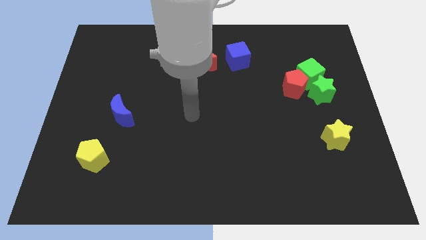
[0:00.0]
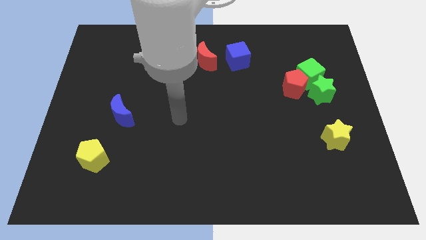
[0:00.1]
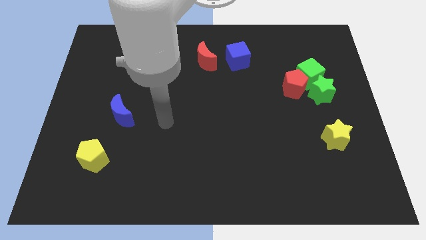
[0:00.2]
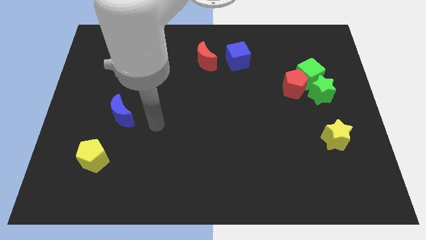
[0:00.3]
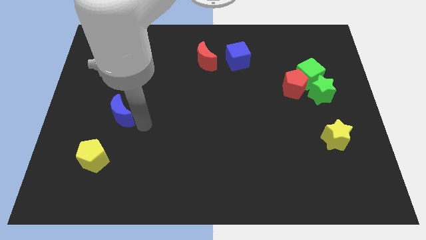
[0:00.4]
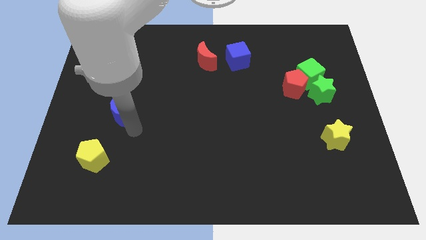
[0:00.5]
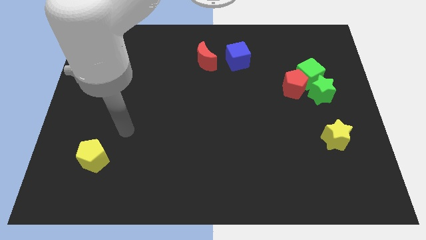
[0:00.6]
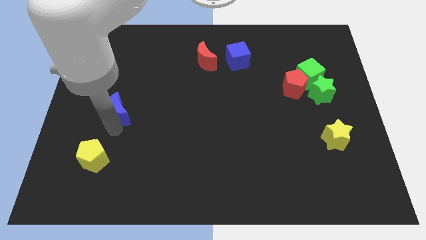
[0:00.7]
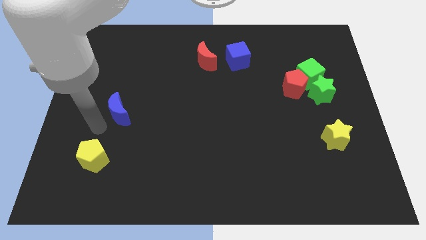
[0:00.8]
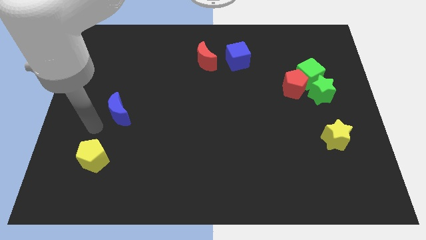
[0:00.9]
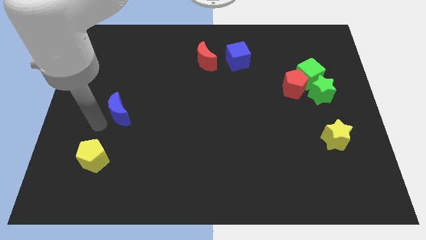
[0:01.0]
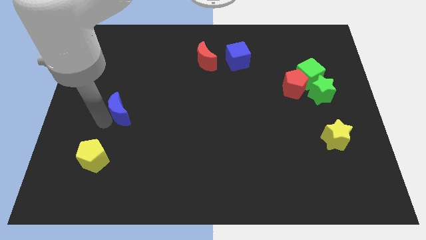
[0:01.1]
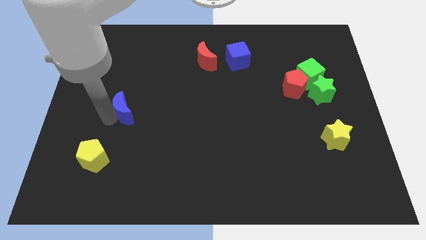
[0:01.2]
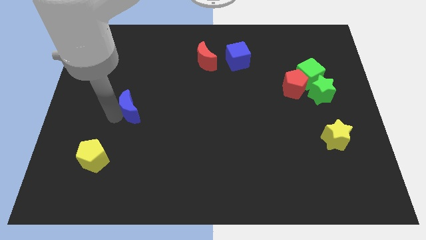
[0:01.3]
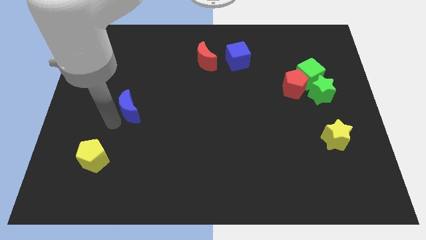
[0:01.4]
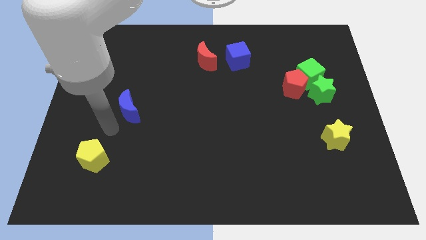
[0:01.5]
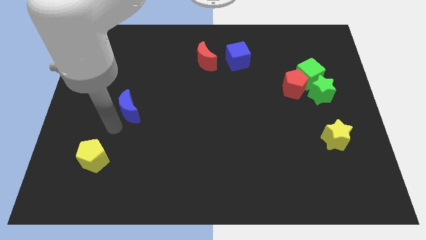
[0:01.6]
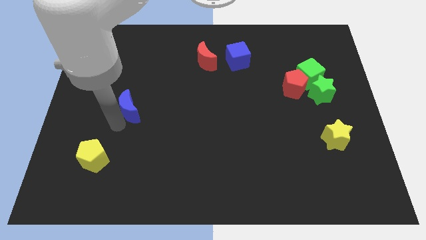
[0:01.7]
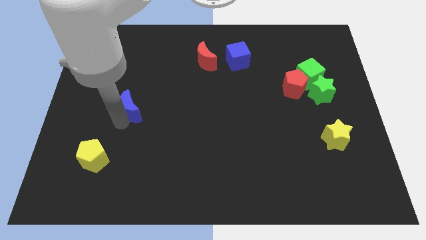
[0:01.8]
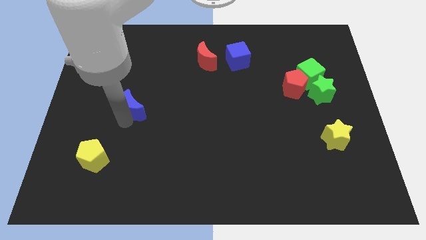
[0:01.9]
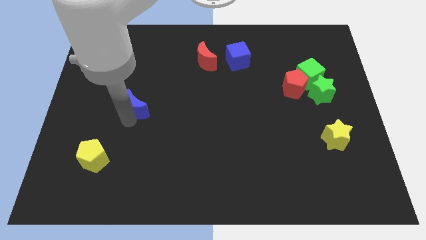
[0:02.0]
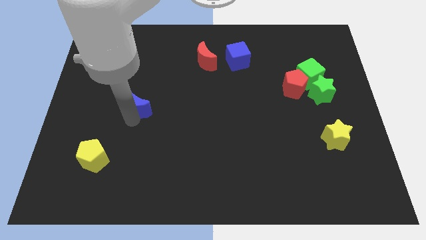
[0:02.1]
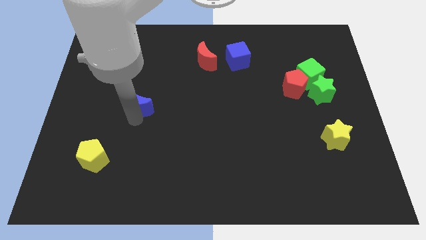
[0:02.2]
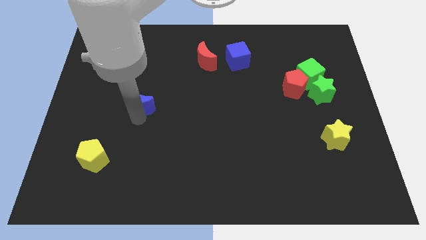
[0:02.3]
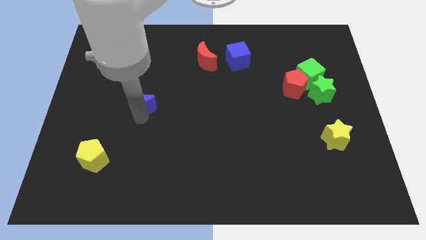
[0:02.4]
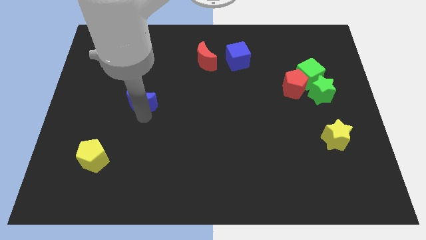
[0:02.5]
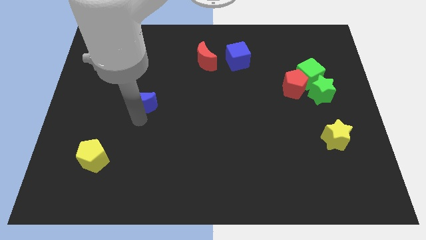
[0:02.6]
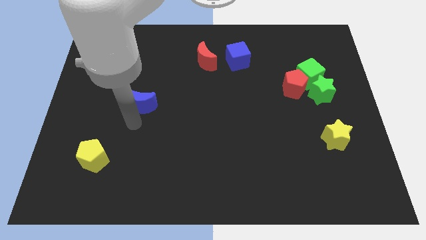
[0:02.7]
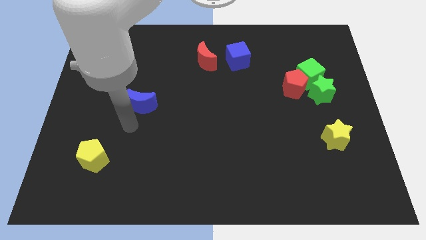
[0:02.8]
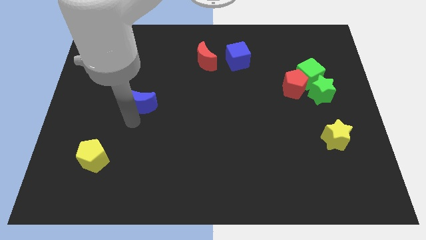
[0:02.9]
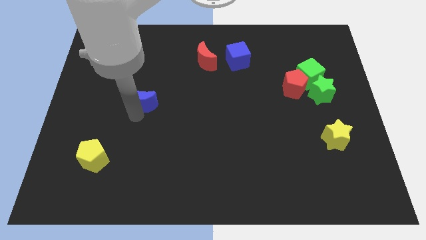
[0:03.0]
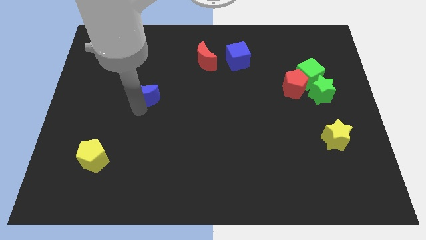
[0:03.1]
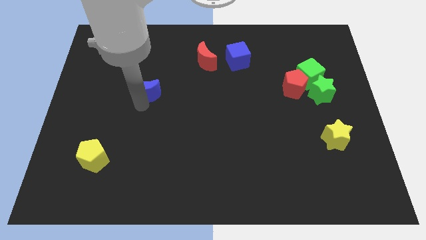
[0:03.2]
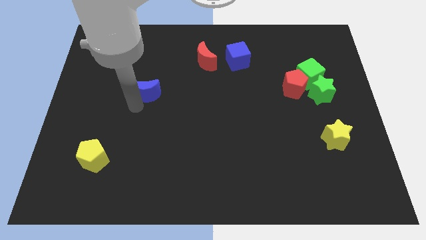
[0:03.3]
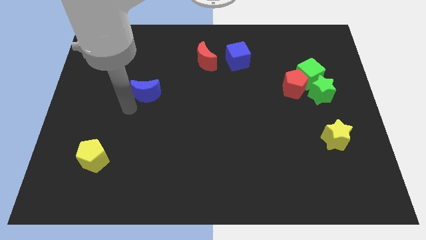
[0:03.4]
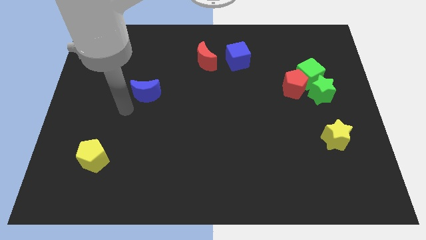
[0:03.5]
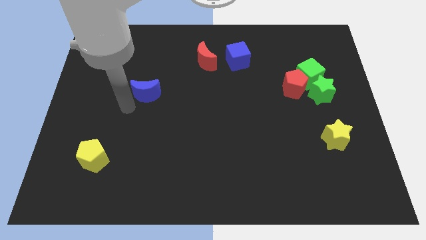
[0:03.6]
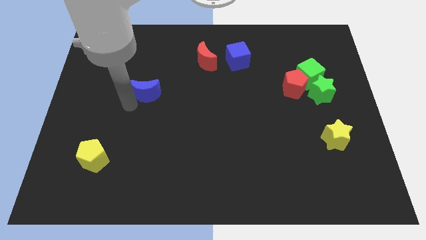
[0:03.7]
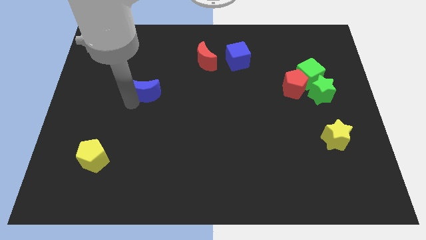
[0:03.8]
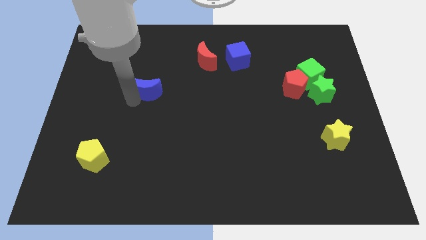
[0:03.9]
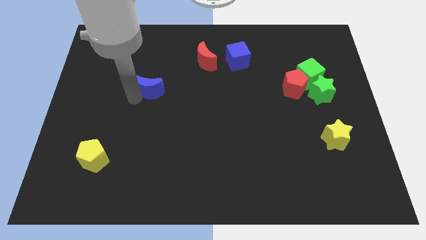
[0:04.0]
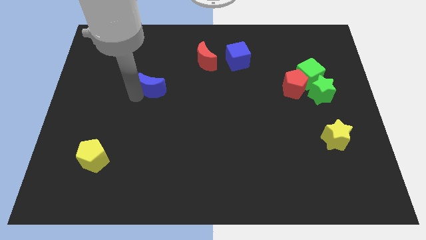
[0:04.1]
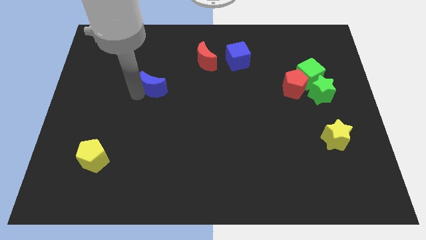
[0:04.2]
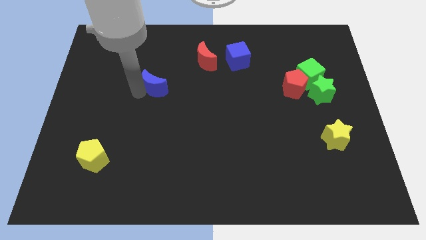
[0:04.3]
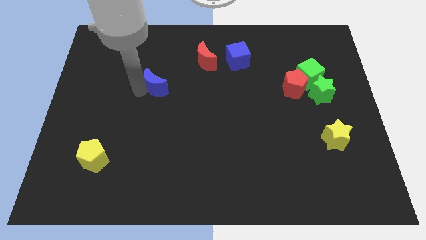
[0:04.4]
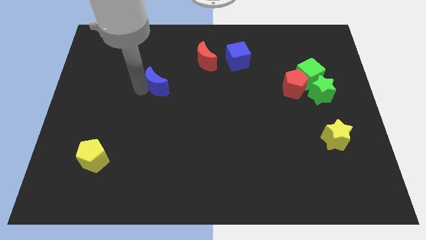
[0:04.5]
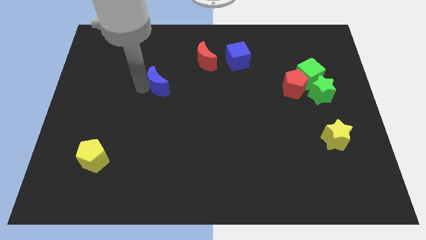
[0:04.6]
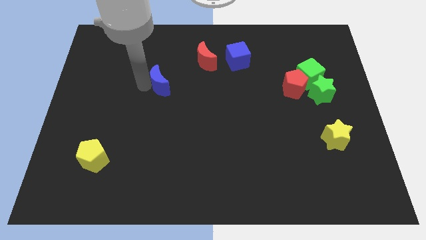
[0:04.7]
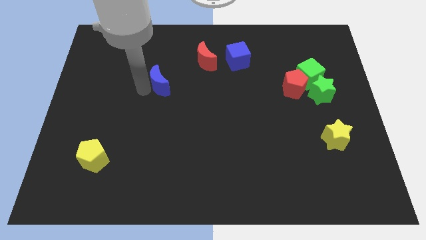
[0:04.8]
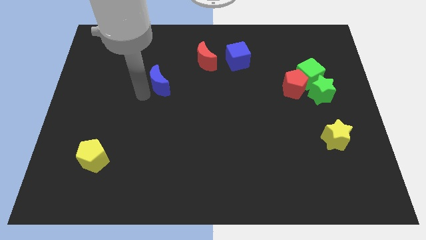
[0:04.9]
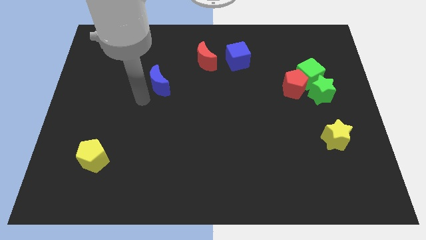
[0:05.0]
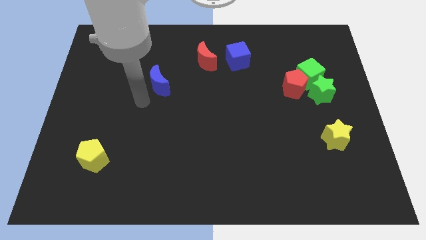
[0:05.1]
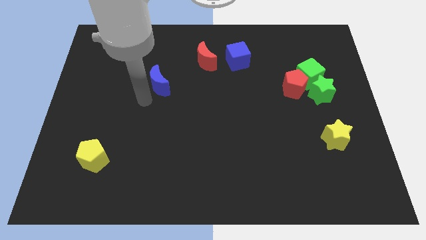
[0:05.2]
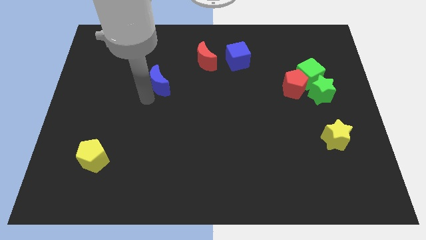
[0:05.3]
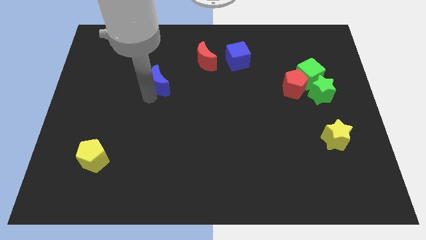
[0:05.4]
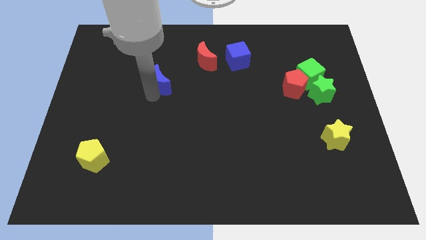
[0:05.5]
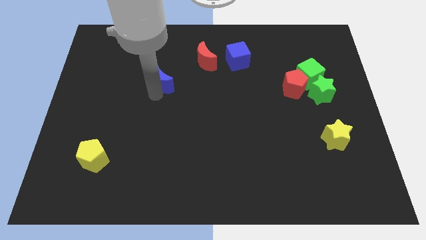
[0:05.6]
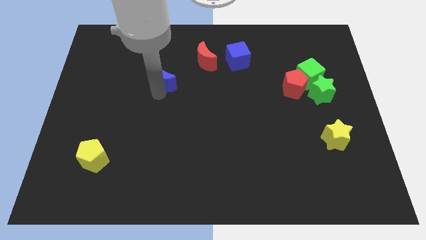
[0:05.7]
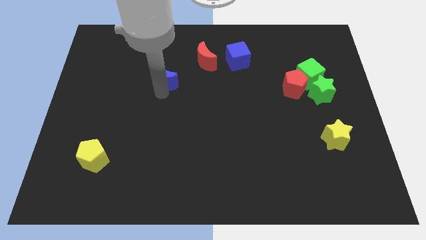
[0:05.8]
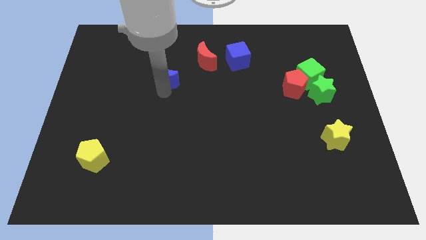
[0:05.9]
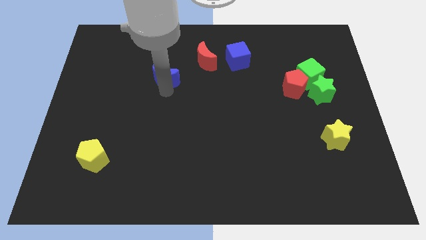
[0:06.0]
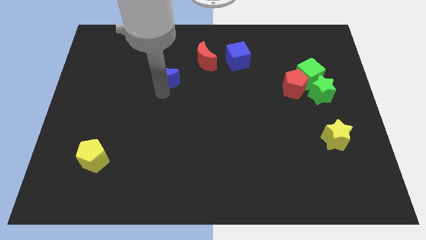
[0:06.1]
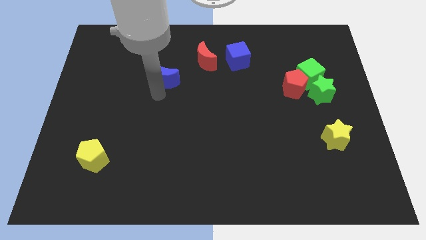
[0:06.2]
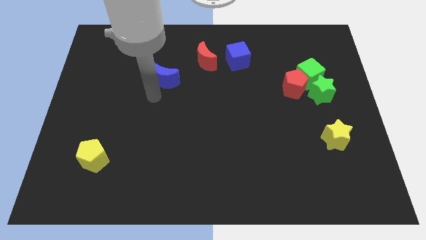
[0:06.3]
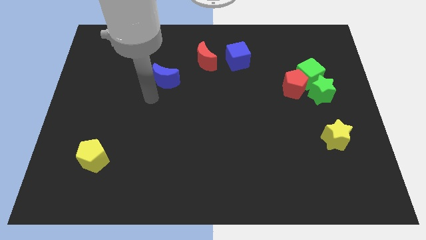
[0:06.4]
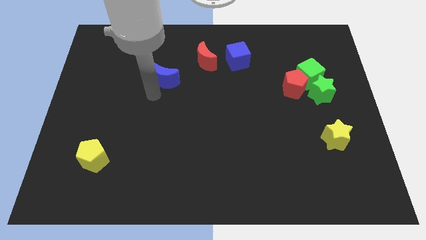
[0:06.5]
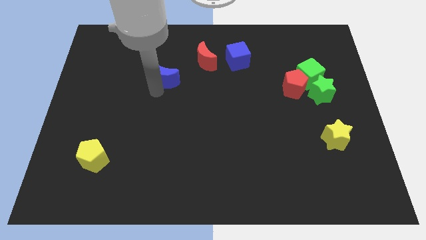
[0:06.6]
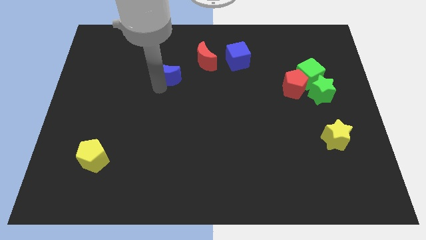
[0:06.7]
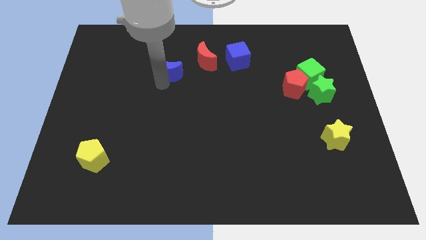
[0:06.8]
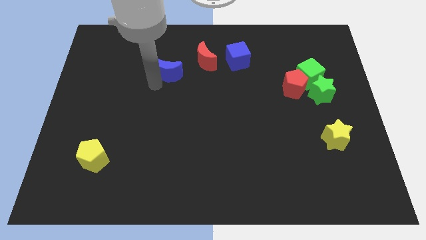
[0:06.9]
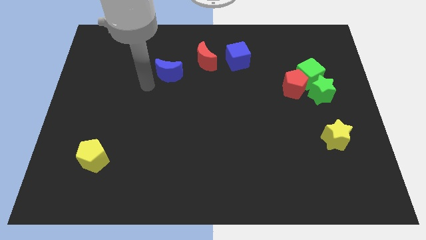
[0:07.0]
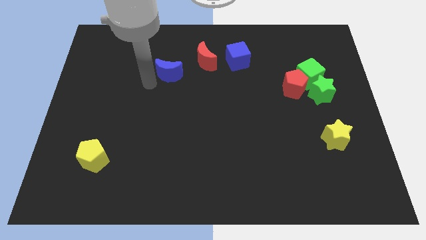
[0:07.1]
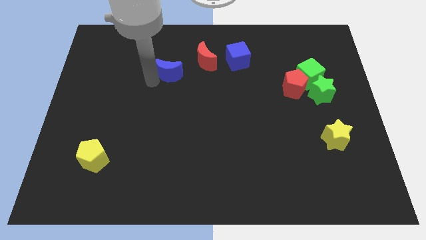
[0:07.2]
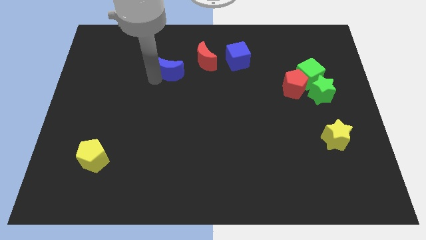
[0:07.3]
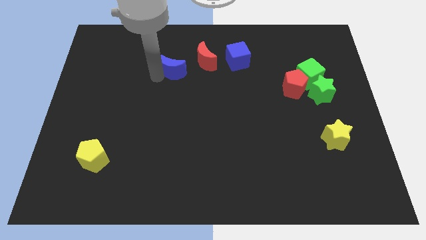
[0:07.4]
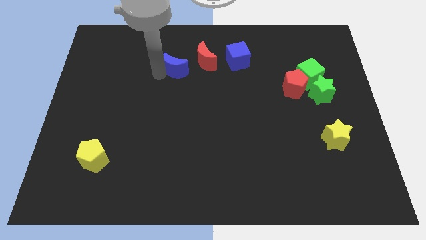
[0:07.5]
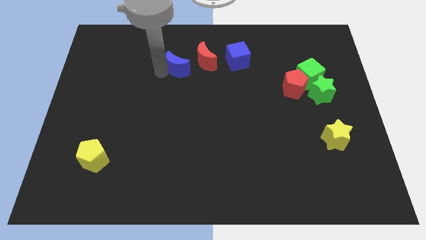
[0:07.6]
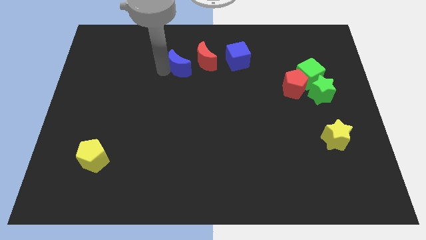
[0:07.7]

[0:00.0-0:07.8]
slide the blue moon left of the blue cube
